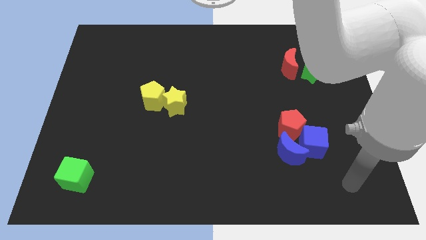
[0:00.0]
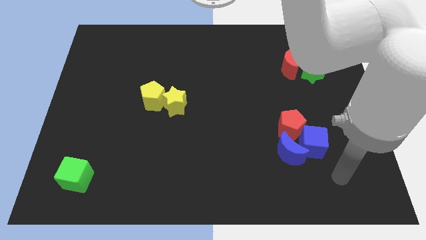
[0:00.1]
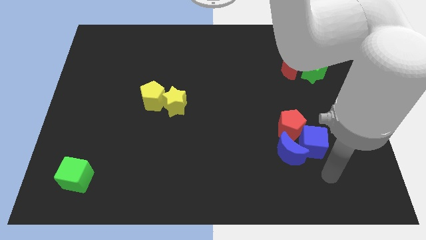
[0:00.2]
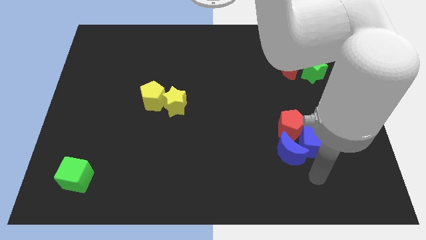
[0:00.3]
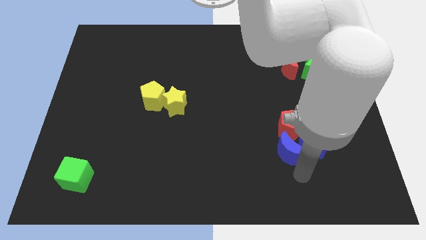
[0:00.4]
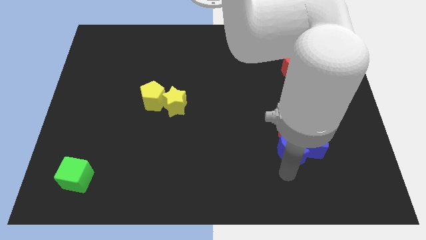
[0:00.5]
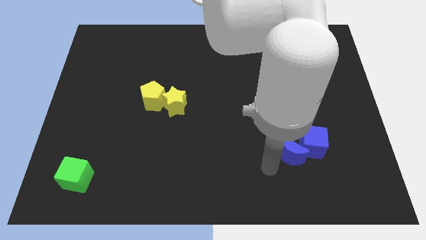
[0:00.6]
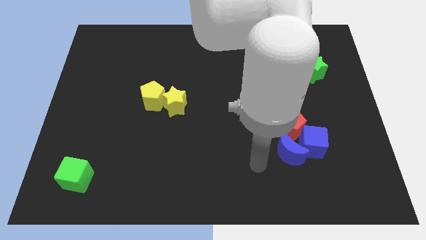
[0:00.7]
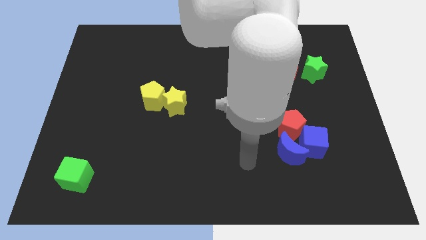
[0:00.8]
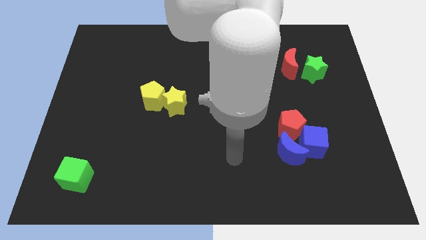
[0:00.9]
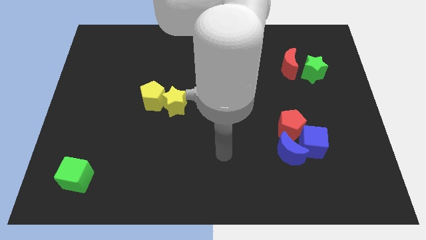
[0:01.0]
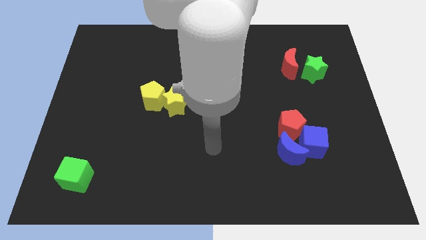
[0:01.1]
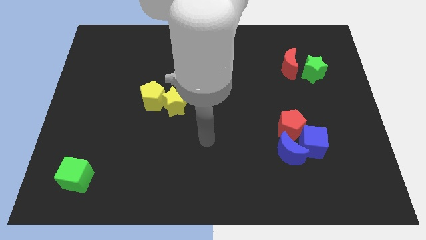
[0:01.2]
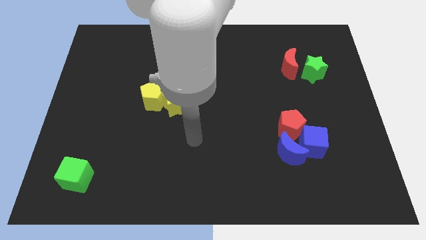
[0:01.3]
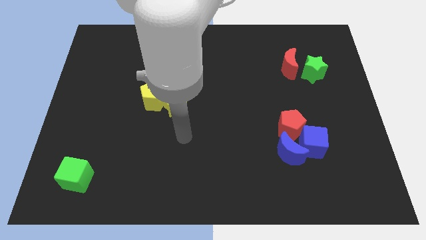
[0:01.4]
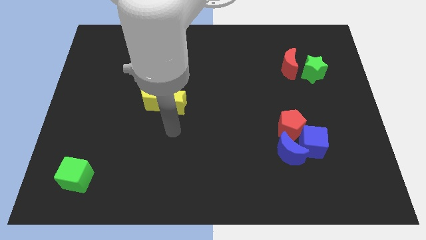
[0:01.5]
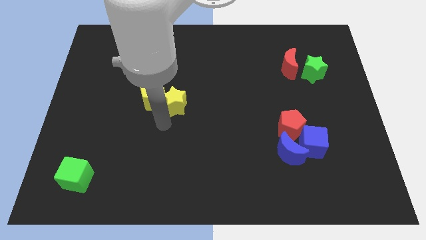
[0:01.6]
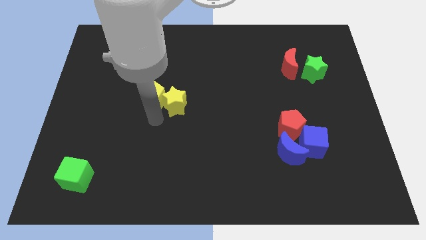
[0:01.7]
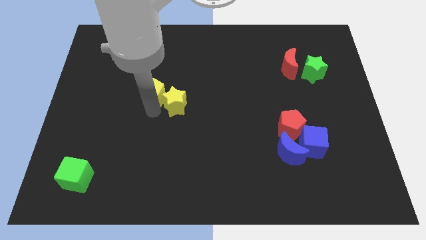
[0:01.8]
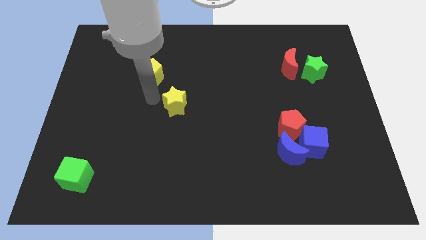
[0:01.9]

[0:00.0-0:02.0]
move the yellow star away from the yellow pentagon

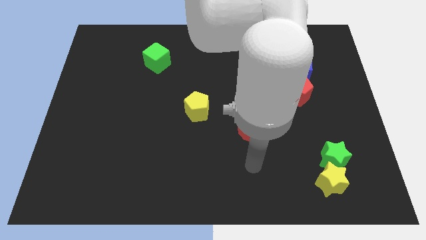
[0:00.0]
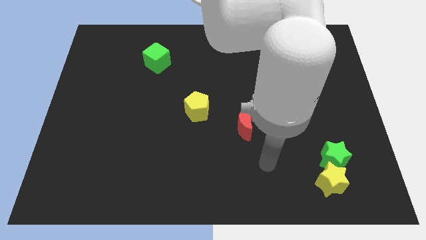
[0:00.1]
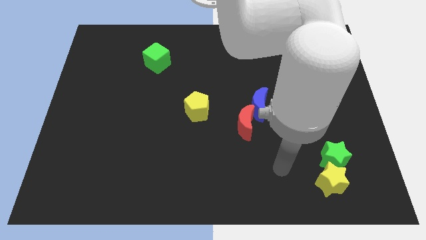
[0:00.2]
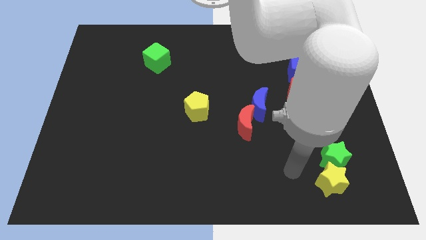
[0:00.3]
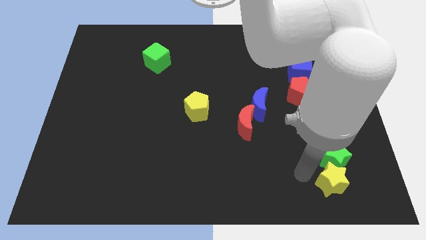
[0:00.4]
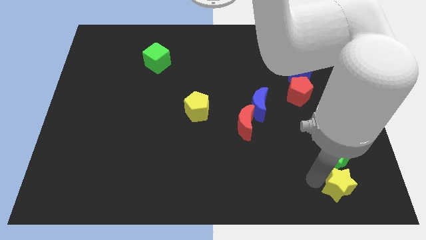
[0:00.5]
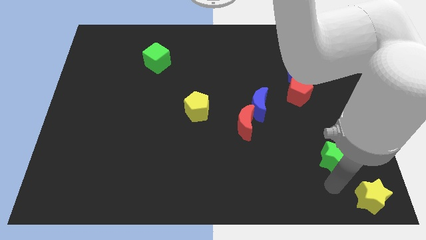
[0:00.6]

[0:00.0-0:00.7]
move the green star away from the yellow star

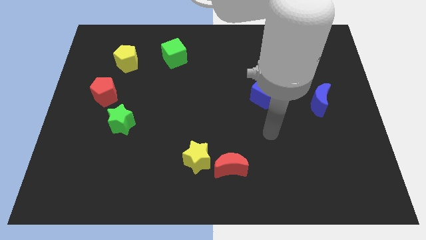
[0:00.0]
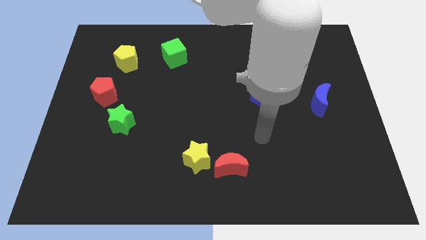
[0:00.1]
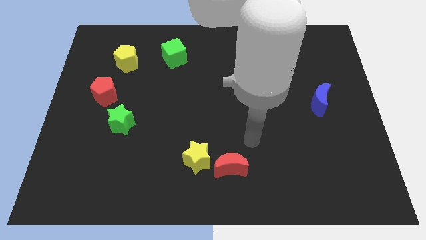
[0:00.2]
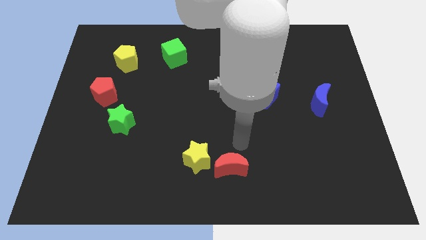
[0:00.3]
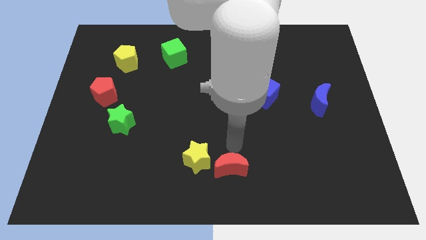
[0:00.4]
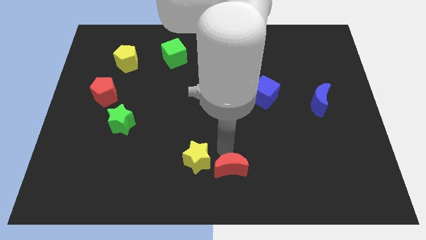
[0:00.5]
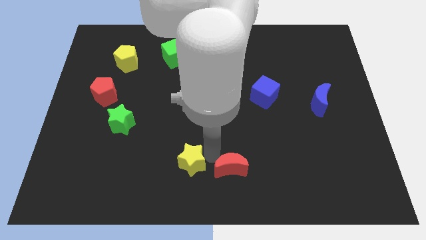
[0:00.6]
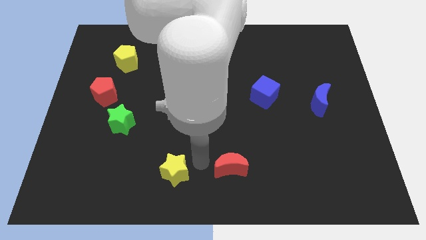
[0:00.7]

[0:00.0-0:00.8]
move the red moon away from the yellow star

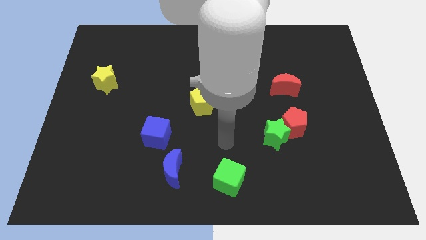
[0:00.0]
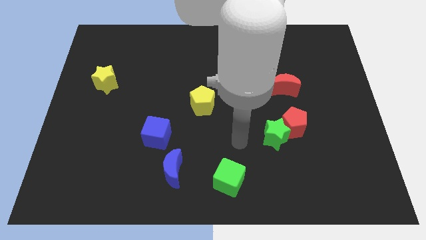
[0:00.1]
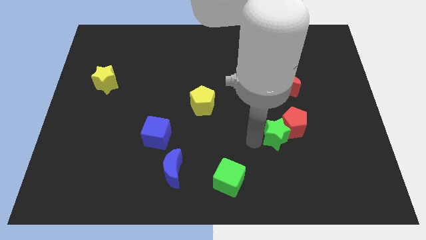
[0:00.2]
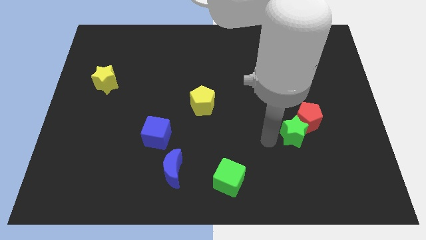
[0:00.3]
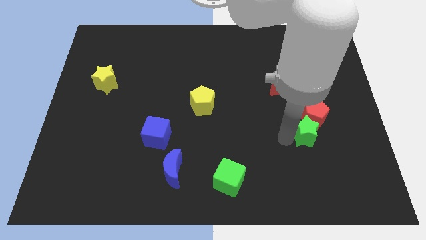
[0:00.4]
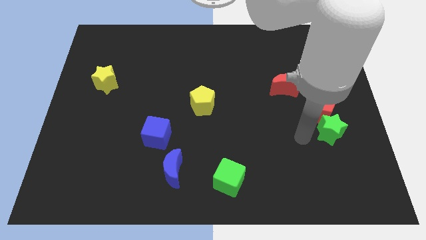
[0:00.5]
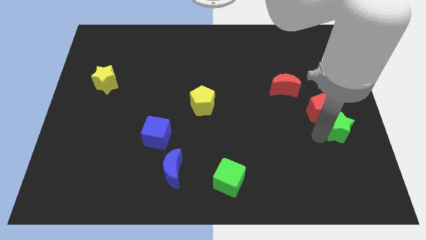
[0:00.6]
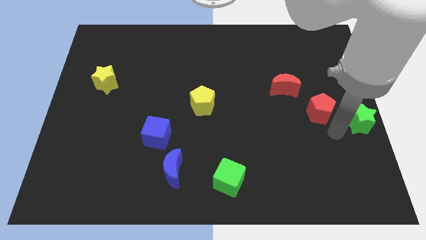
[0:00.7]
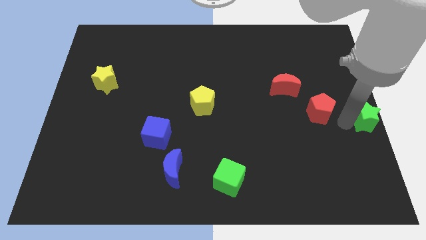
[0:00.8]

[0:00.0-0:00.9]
move the red pentagon away from the green star

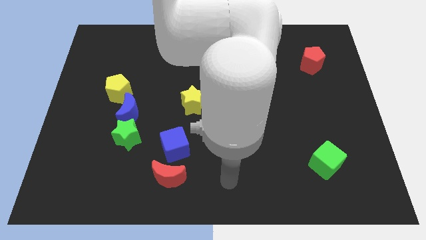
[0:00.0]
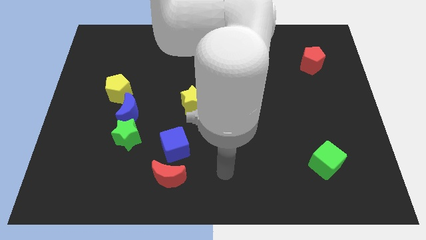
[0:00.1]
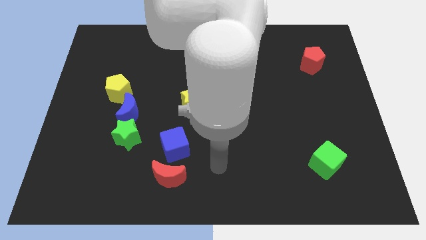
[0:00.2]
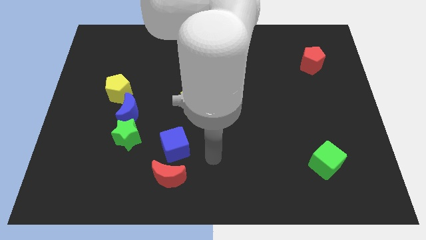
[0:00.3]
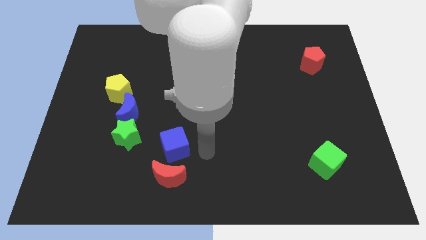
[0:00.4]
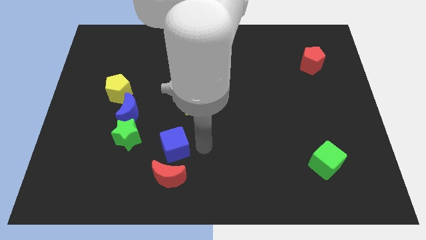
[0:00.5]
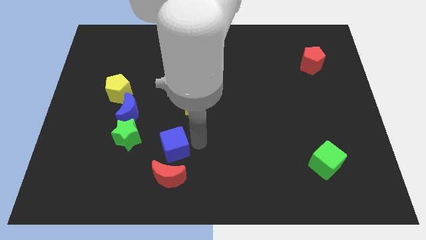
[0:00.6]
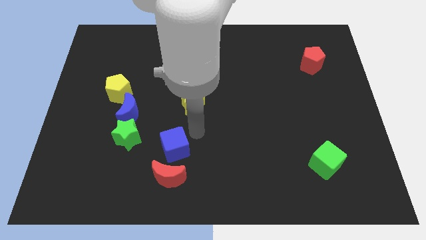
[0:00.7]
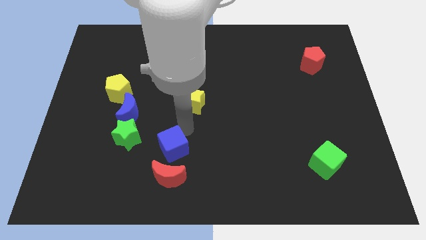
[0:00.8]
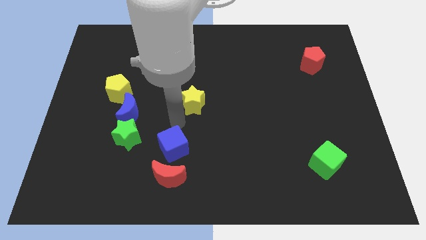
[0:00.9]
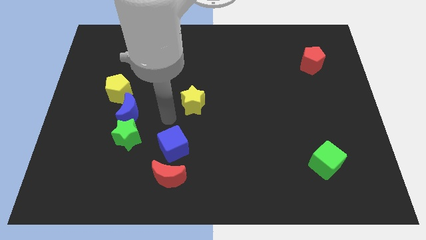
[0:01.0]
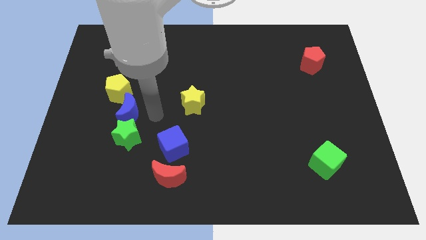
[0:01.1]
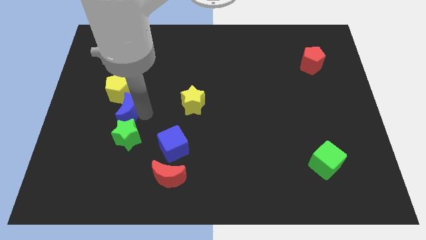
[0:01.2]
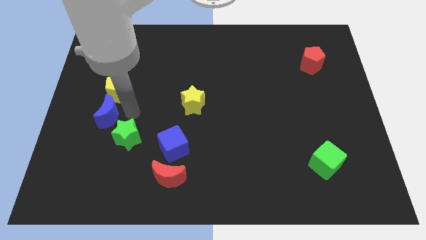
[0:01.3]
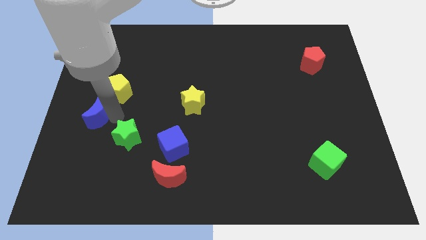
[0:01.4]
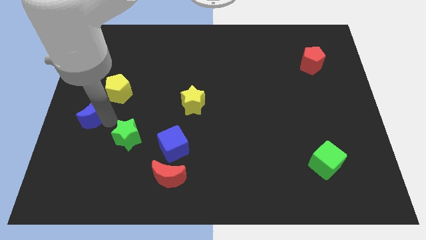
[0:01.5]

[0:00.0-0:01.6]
move the green star away from the blue moon

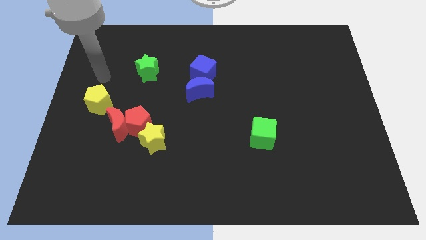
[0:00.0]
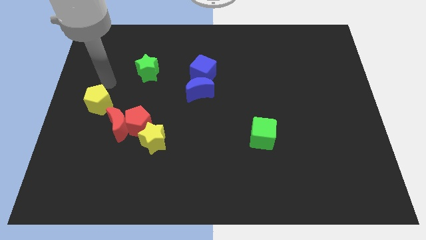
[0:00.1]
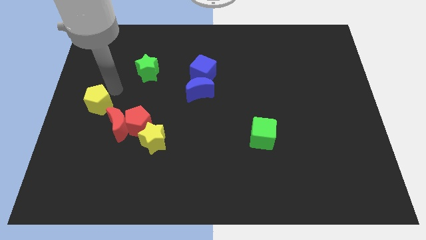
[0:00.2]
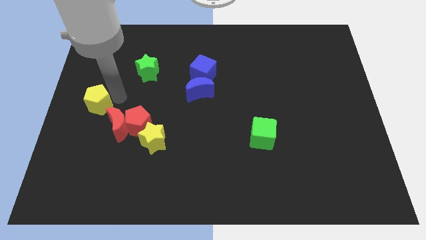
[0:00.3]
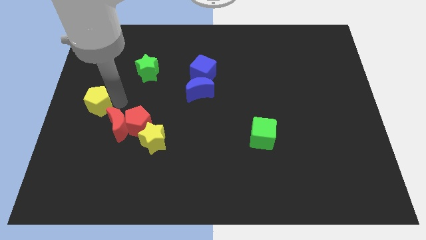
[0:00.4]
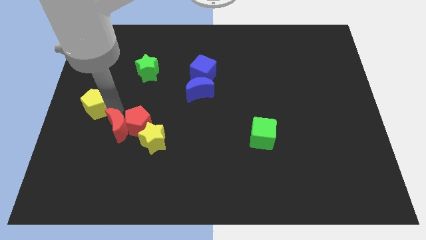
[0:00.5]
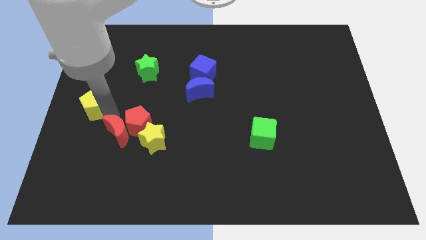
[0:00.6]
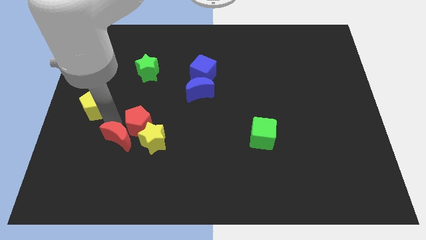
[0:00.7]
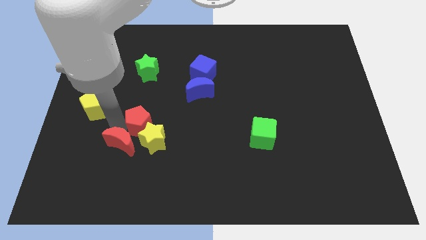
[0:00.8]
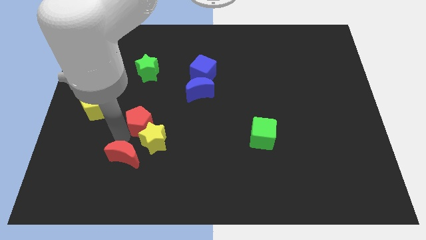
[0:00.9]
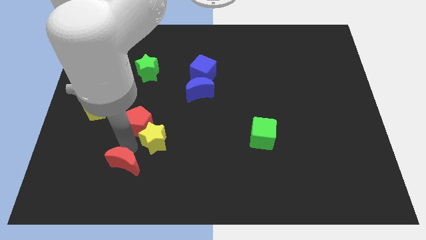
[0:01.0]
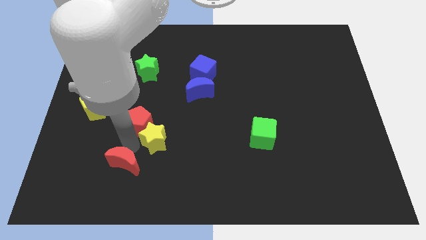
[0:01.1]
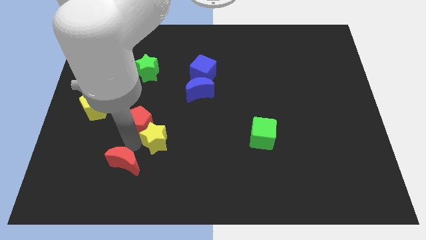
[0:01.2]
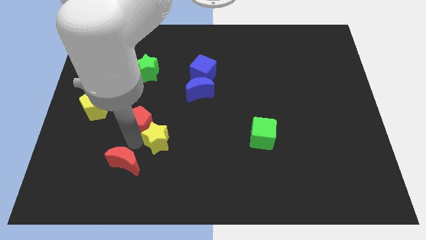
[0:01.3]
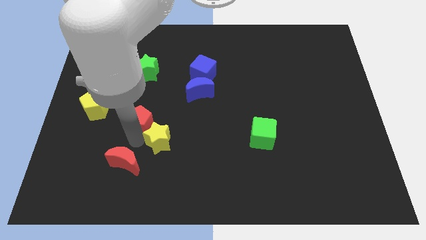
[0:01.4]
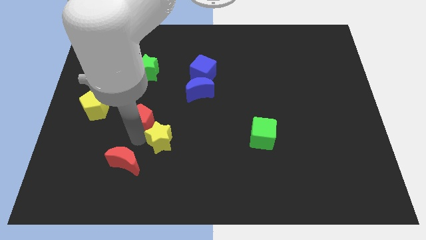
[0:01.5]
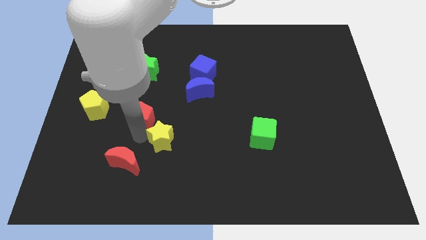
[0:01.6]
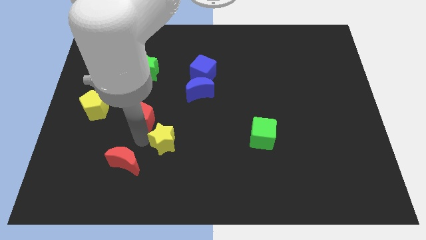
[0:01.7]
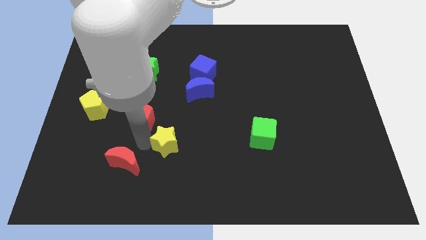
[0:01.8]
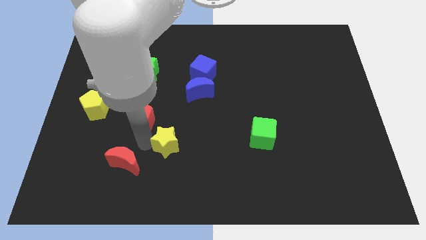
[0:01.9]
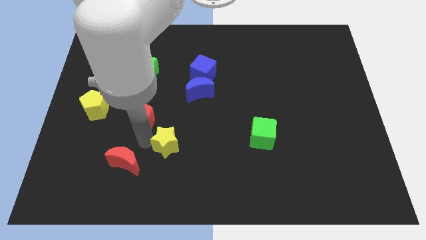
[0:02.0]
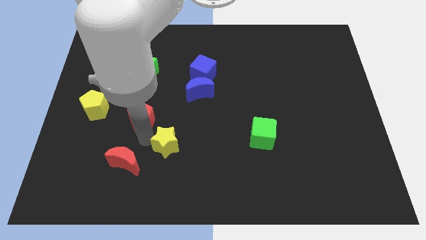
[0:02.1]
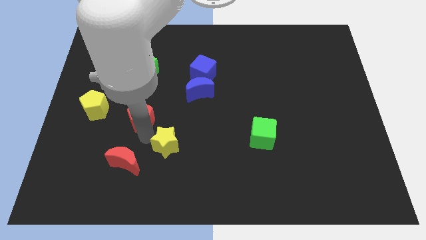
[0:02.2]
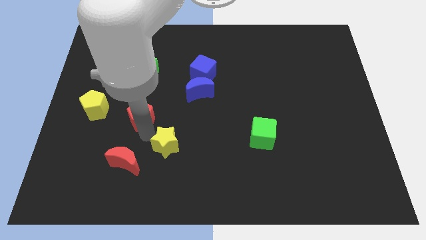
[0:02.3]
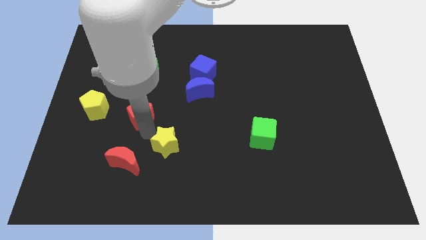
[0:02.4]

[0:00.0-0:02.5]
separate the red pentagon from the red moon and yellow star

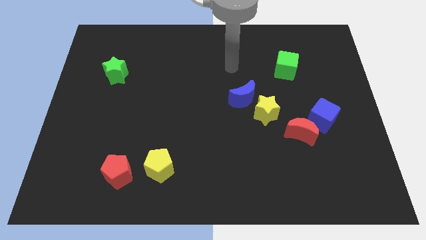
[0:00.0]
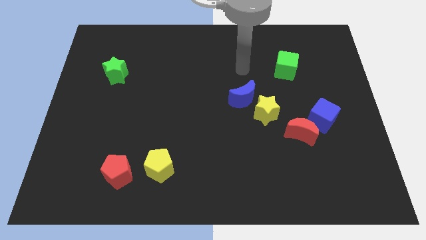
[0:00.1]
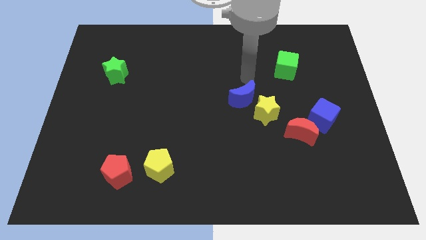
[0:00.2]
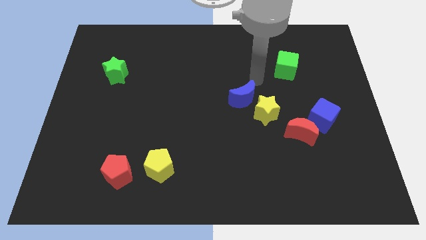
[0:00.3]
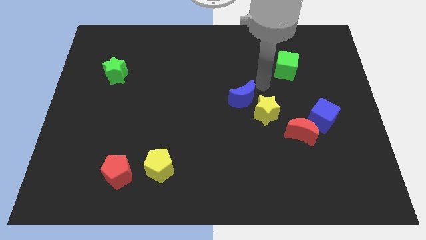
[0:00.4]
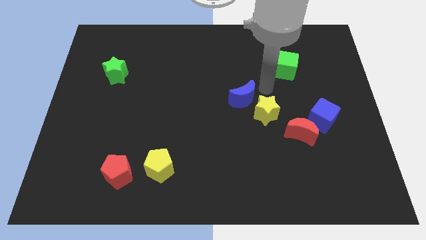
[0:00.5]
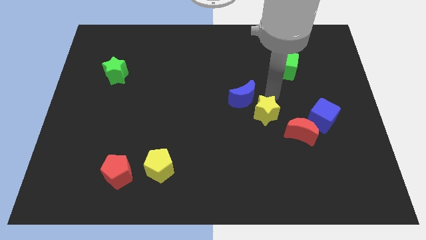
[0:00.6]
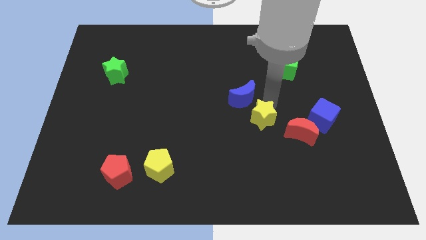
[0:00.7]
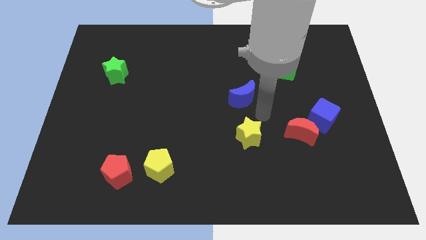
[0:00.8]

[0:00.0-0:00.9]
move the blue moon away from the yellow star
